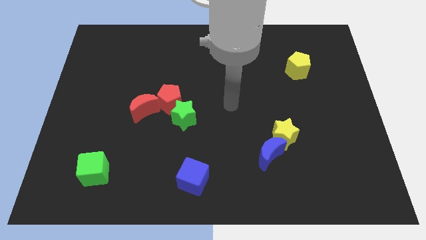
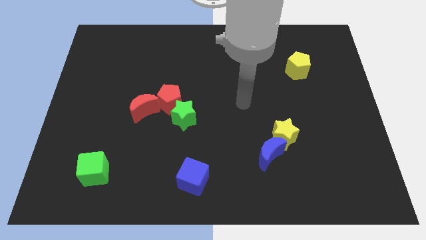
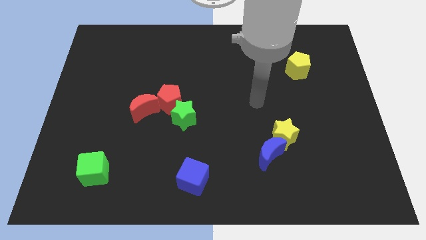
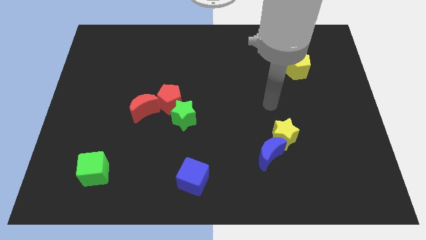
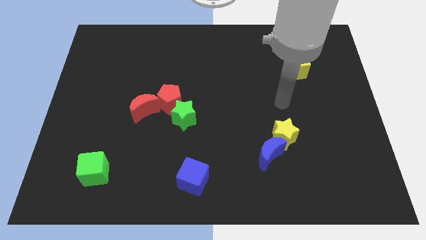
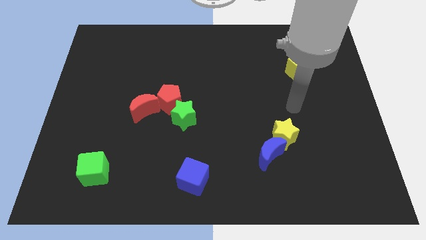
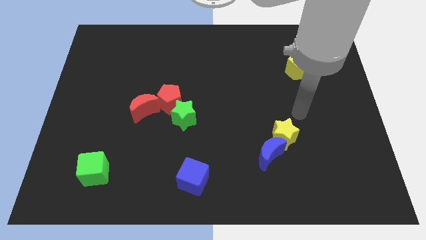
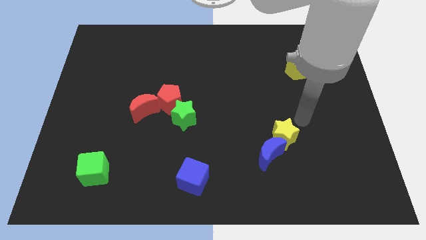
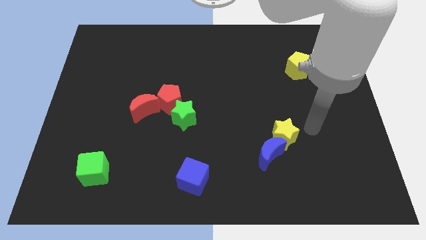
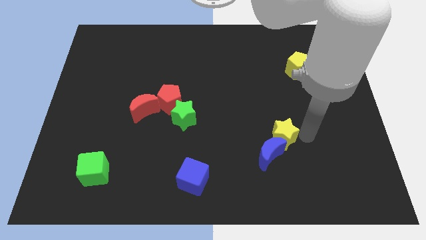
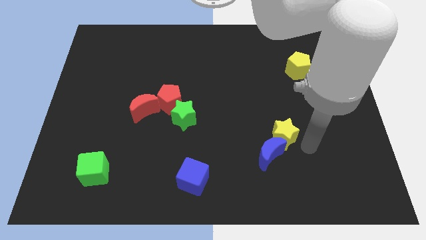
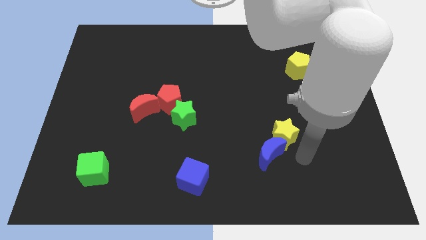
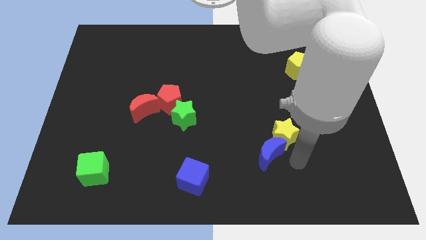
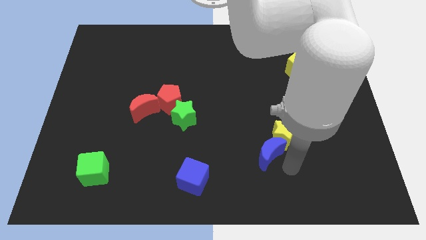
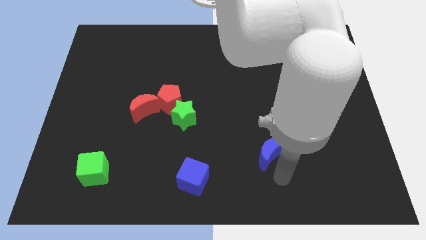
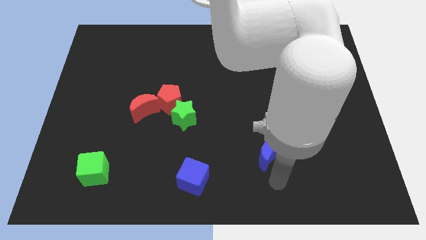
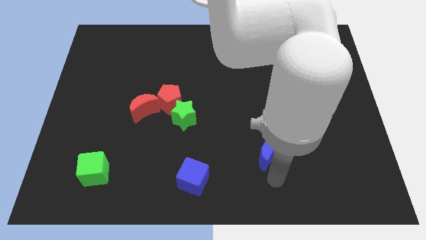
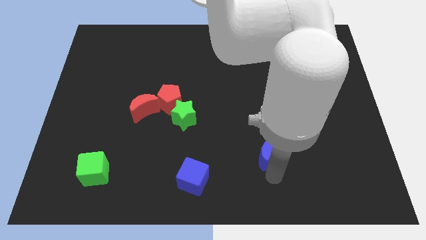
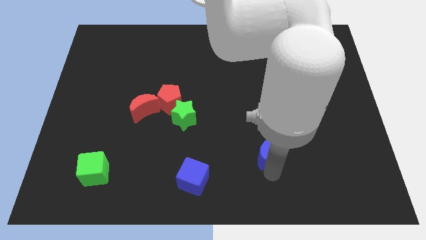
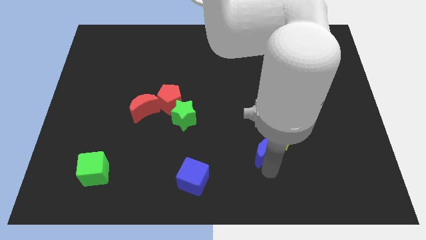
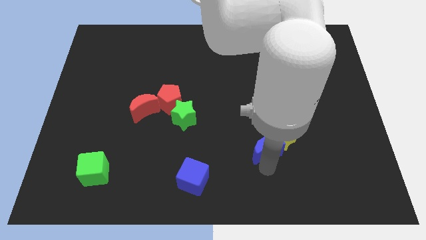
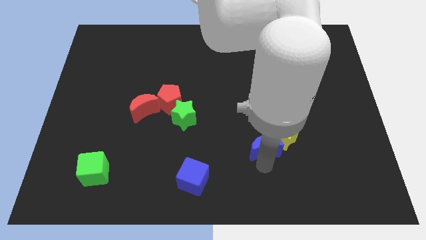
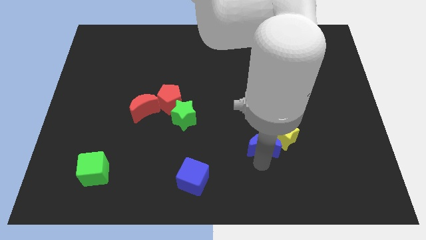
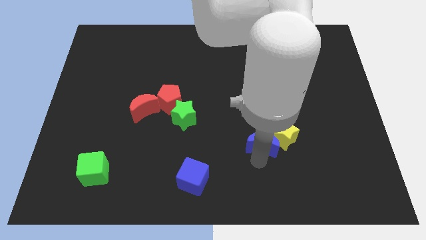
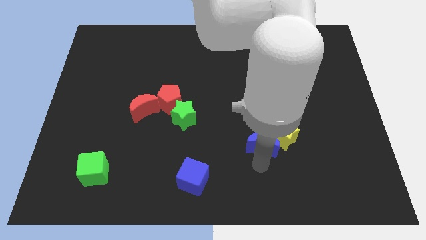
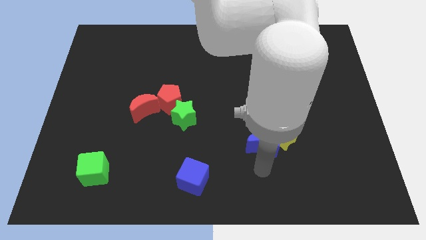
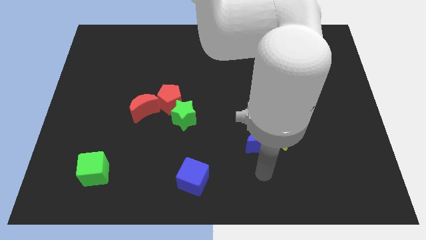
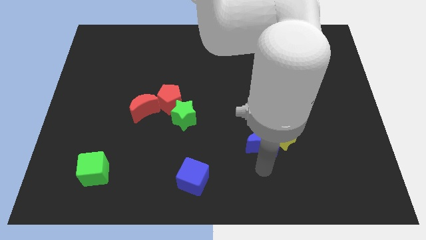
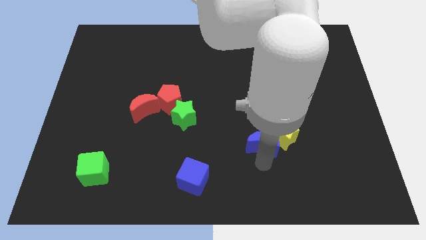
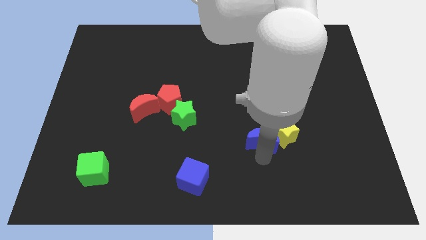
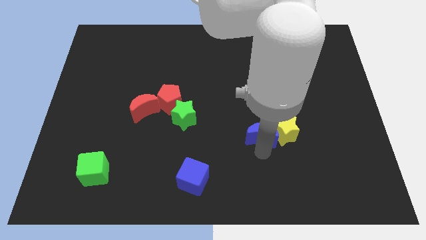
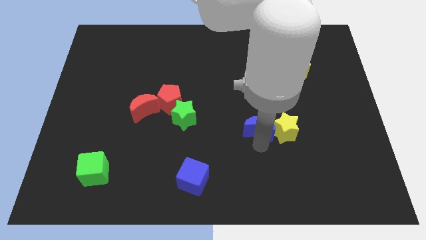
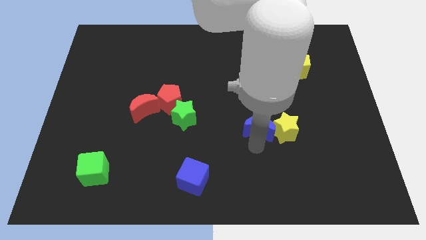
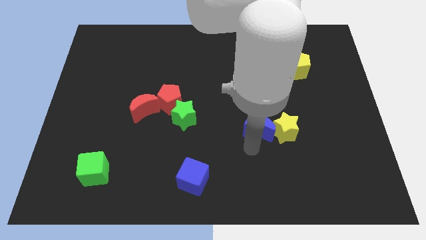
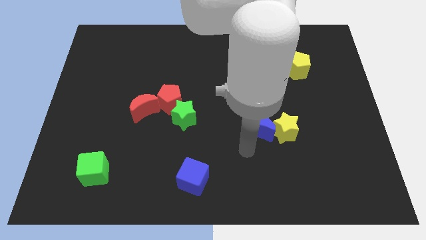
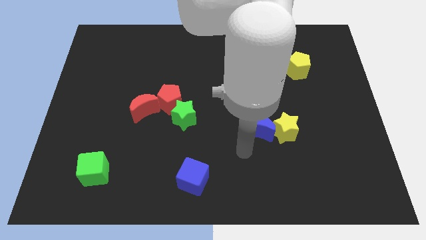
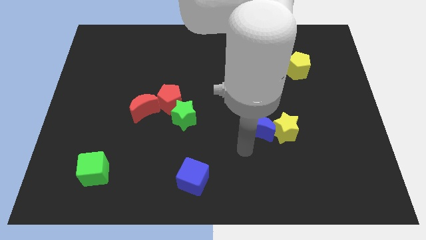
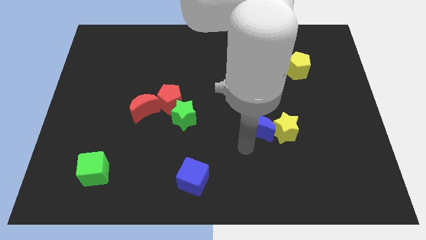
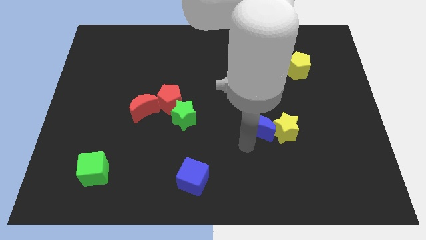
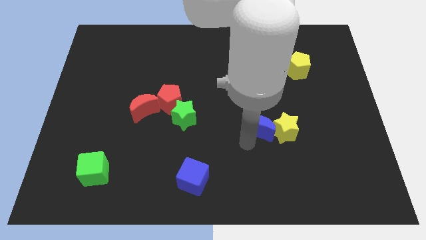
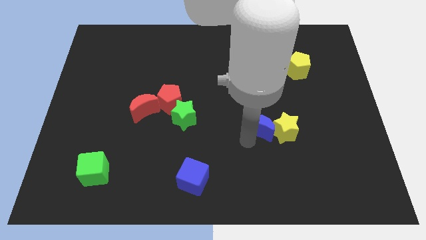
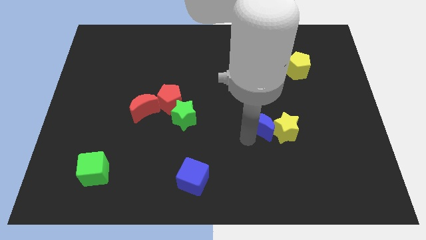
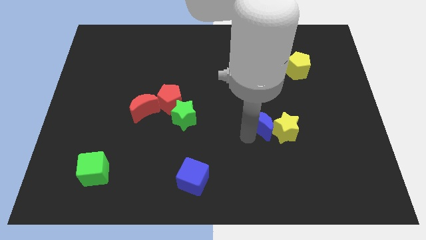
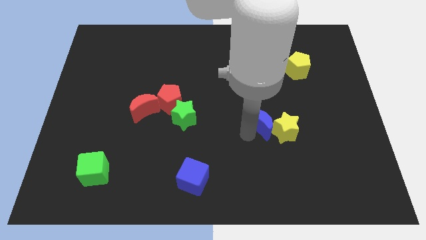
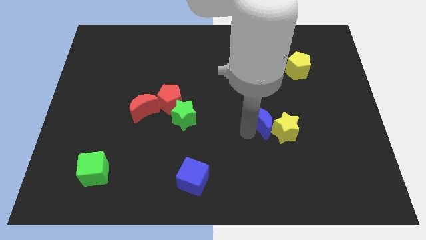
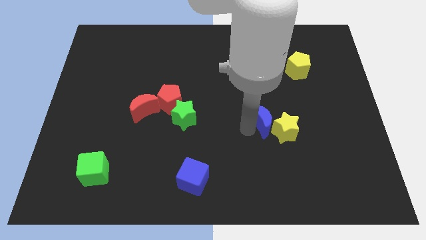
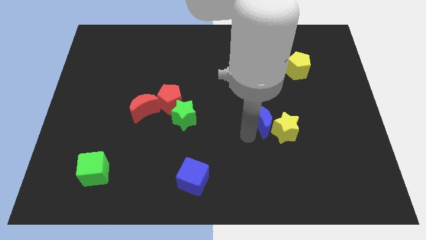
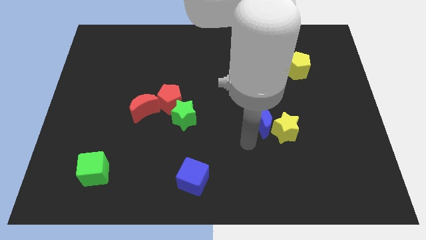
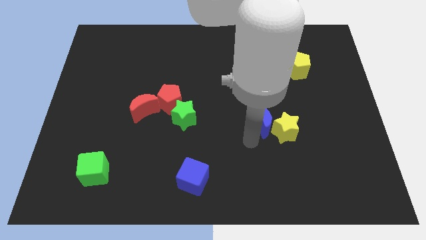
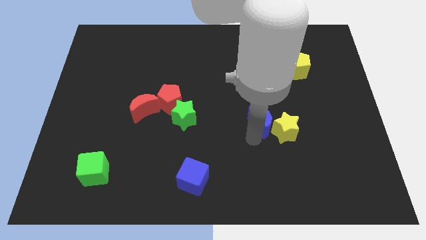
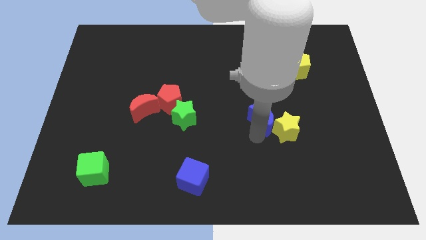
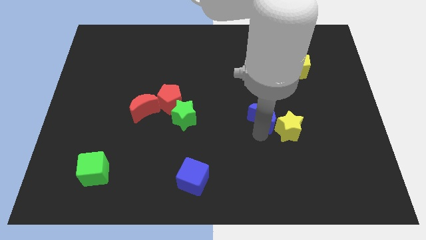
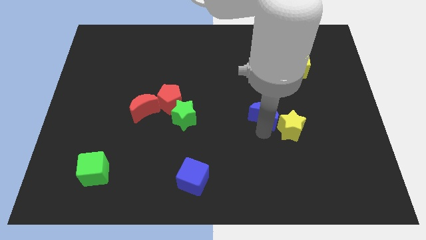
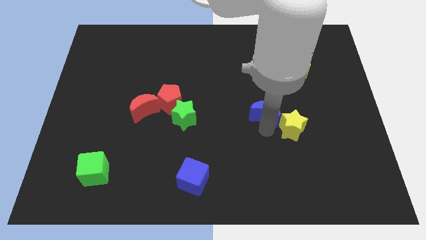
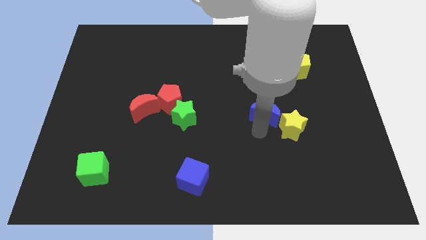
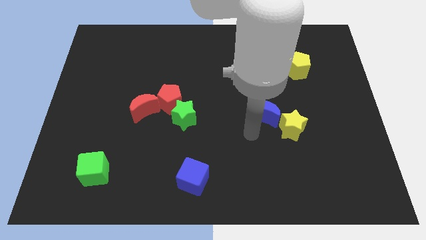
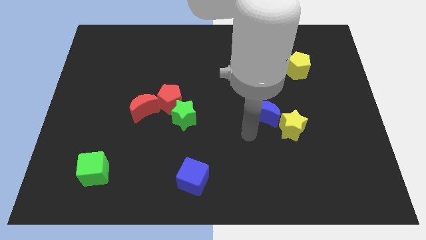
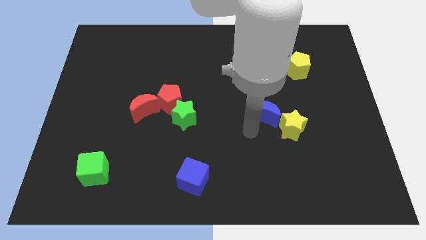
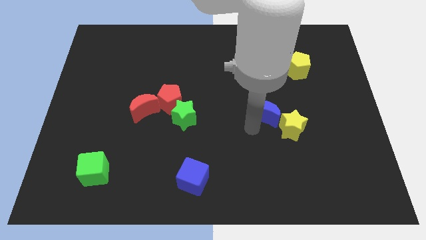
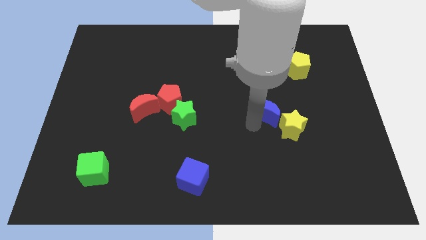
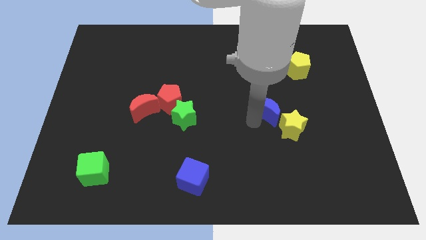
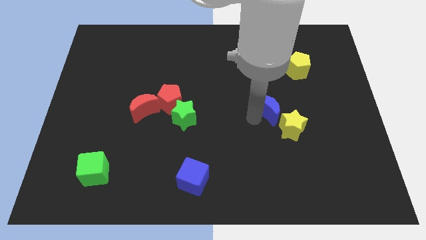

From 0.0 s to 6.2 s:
push the blue moon above the yellow star
